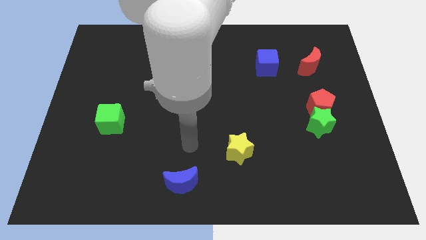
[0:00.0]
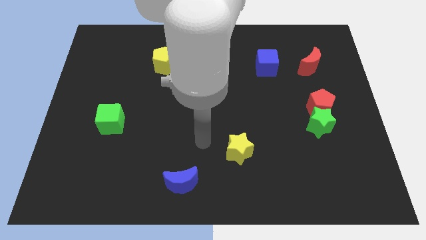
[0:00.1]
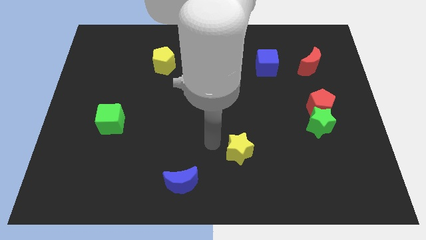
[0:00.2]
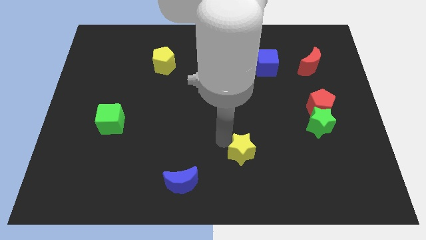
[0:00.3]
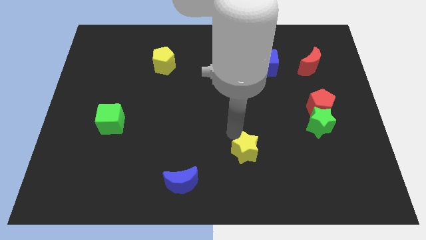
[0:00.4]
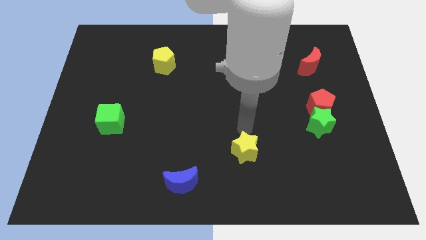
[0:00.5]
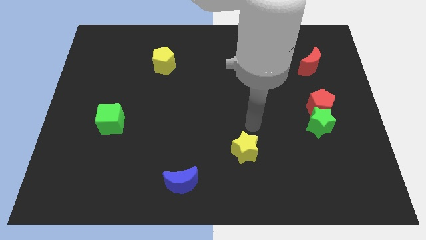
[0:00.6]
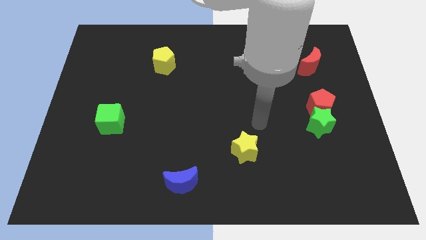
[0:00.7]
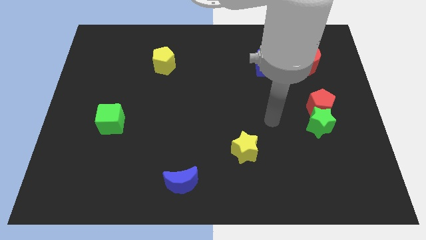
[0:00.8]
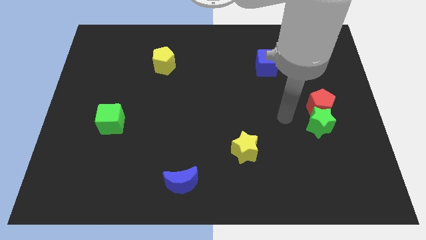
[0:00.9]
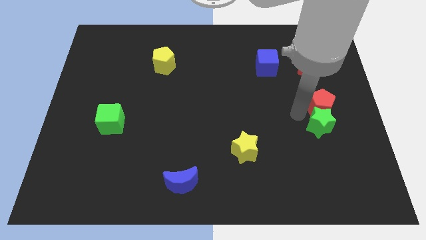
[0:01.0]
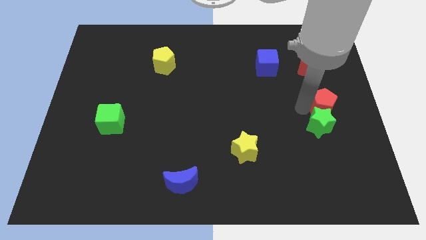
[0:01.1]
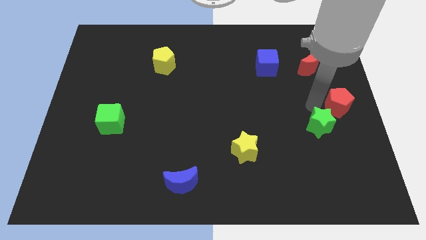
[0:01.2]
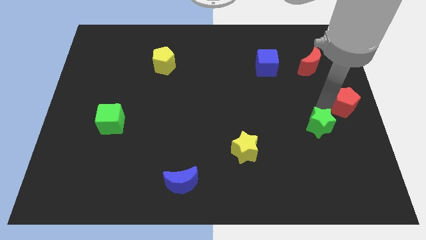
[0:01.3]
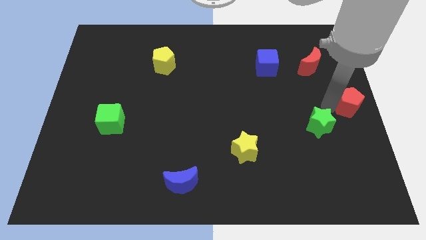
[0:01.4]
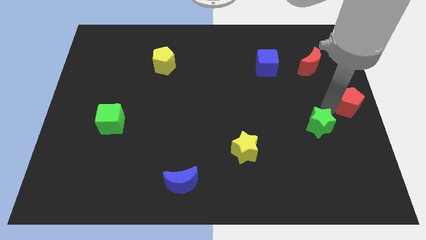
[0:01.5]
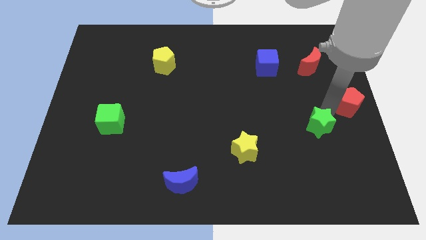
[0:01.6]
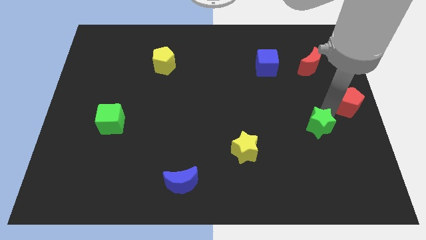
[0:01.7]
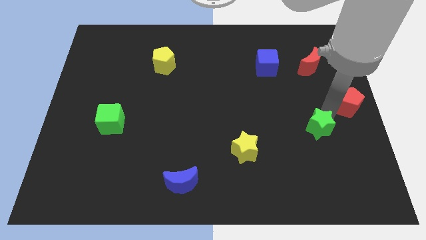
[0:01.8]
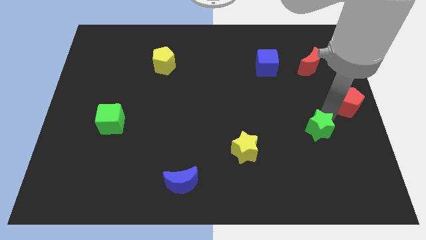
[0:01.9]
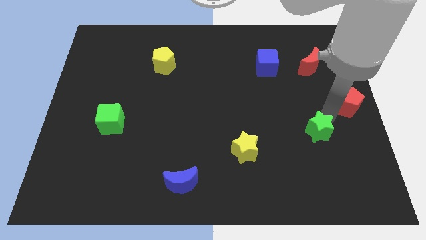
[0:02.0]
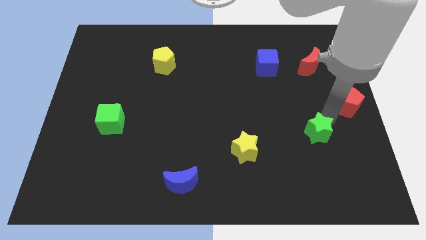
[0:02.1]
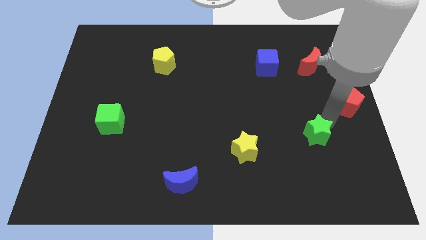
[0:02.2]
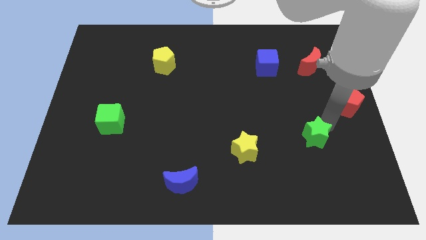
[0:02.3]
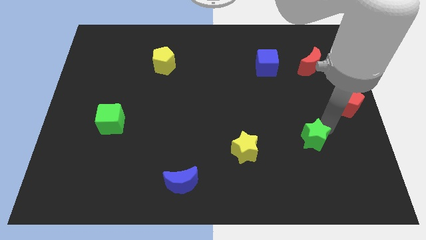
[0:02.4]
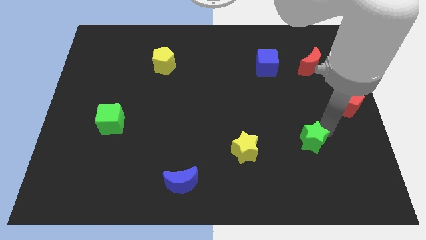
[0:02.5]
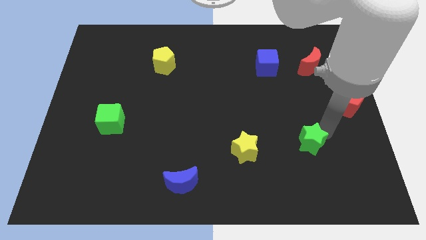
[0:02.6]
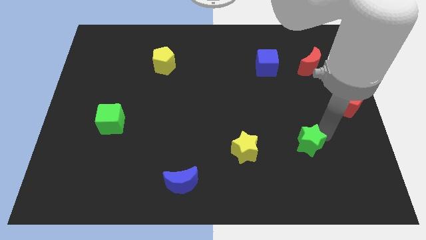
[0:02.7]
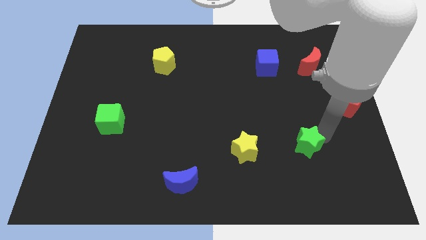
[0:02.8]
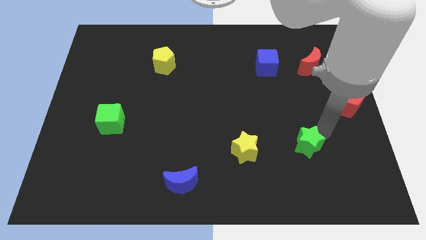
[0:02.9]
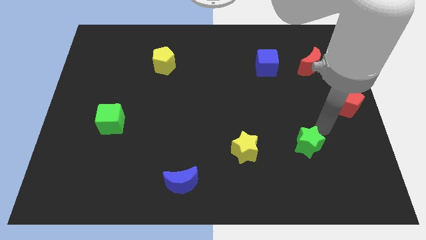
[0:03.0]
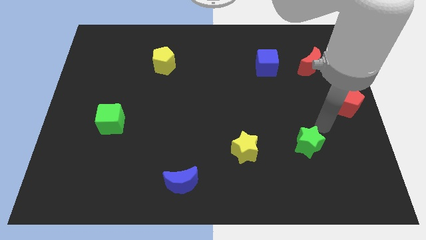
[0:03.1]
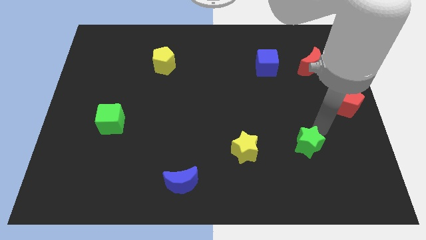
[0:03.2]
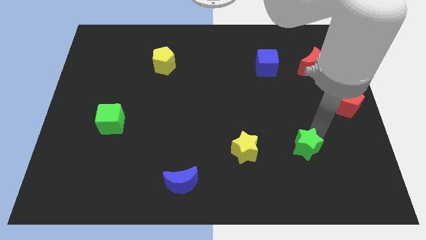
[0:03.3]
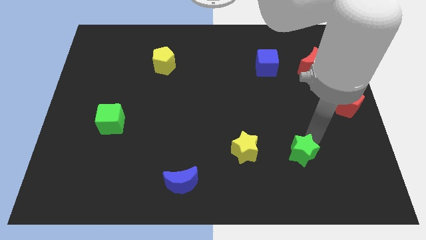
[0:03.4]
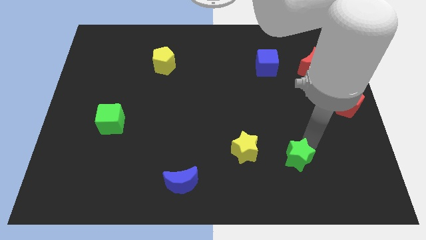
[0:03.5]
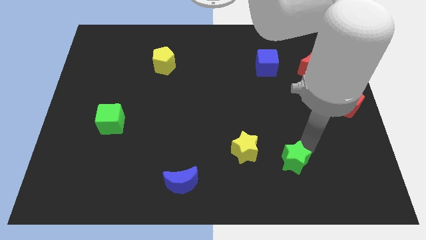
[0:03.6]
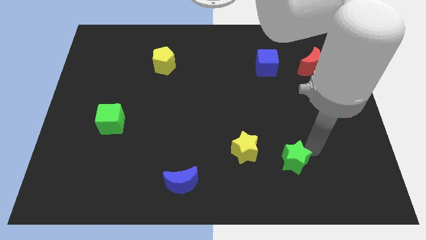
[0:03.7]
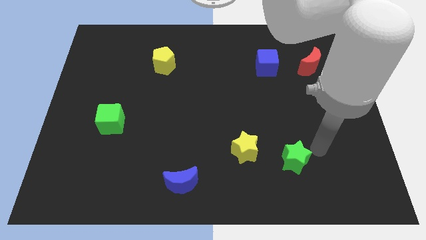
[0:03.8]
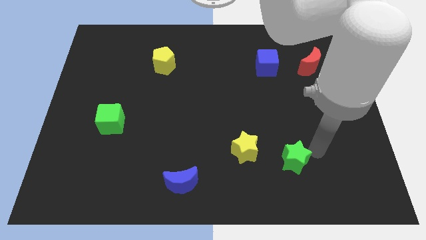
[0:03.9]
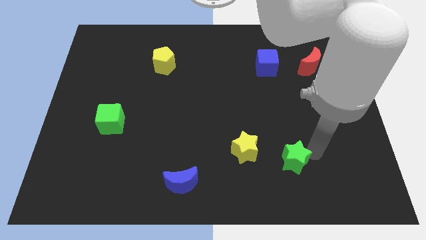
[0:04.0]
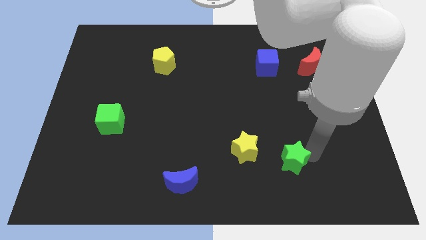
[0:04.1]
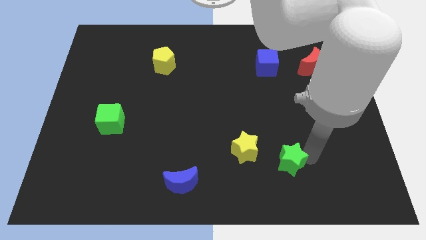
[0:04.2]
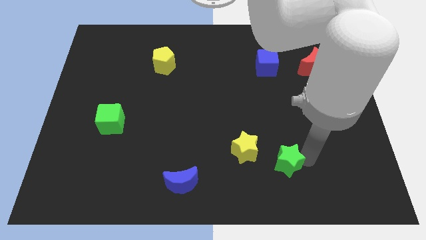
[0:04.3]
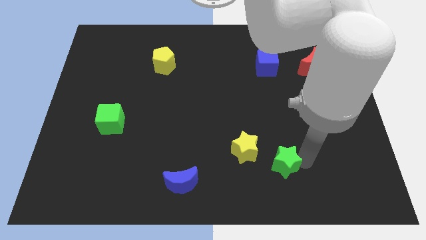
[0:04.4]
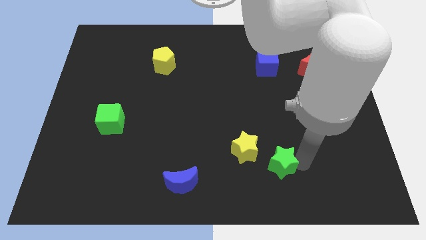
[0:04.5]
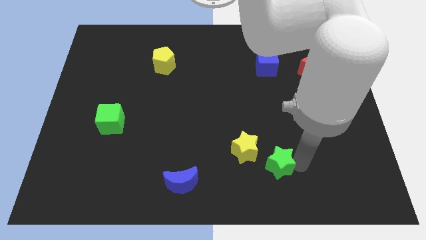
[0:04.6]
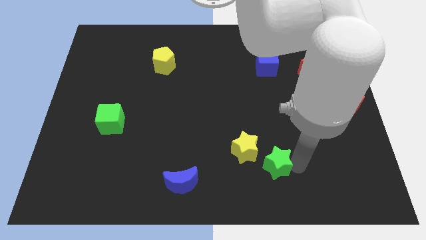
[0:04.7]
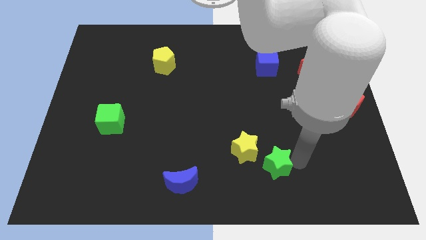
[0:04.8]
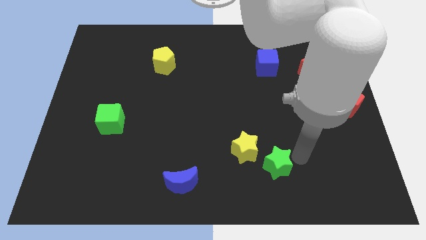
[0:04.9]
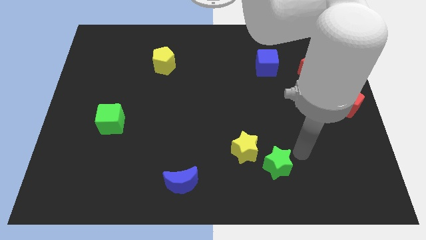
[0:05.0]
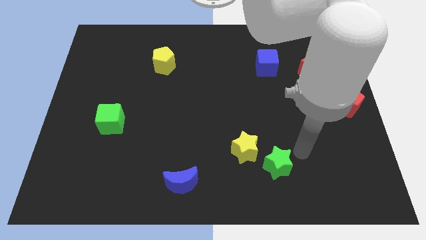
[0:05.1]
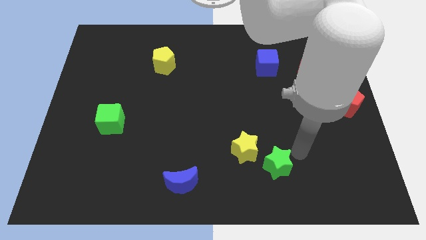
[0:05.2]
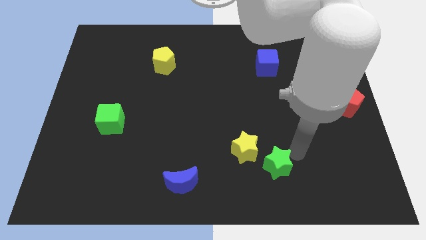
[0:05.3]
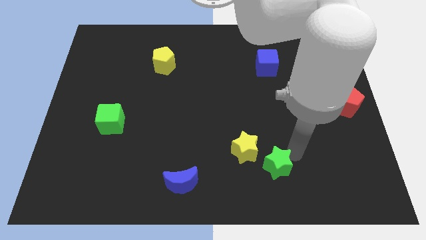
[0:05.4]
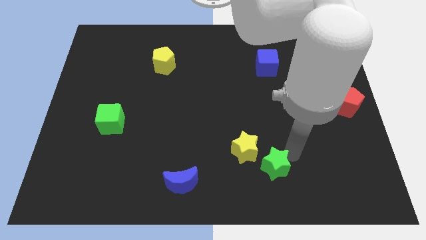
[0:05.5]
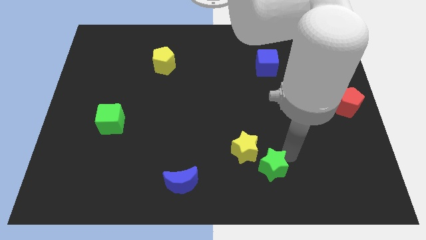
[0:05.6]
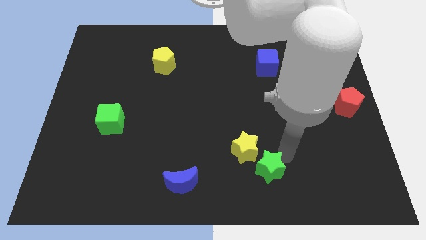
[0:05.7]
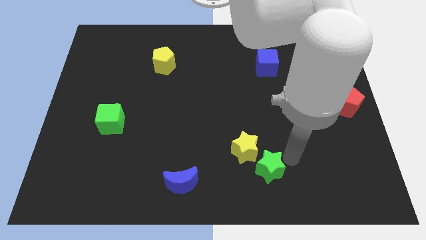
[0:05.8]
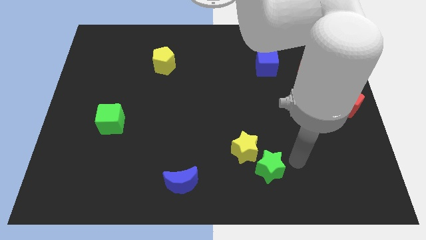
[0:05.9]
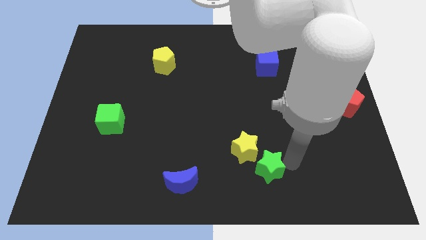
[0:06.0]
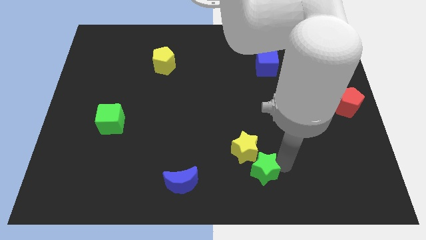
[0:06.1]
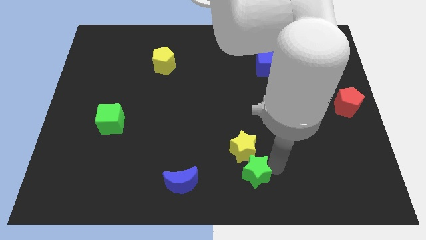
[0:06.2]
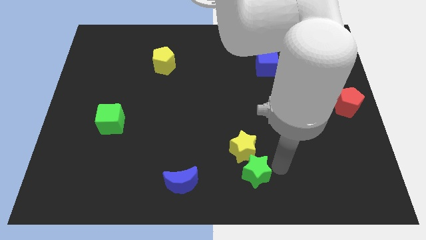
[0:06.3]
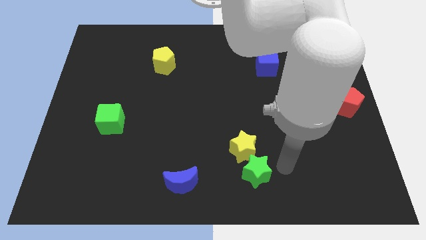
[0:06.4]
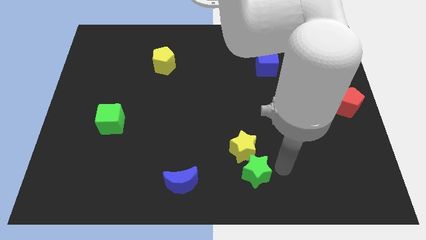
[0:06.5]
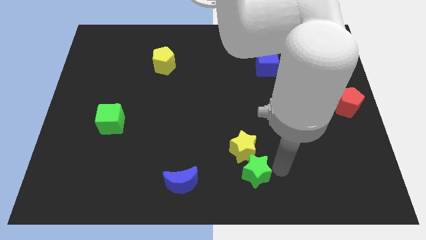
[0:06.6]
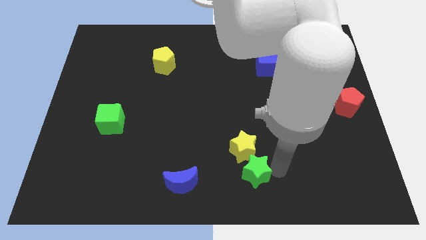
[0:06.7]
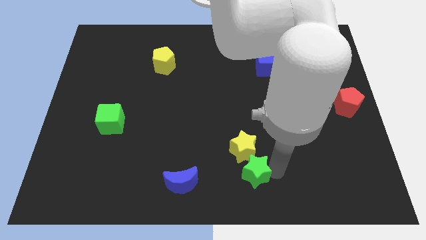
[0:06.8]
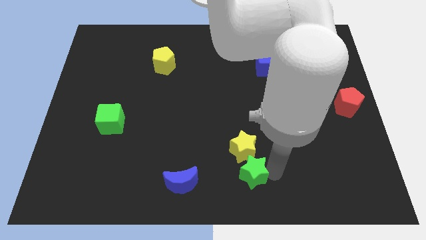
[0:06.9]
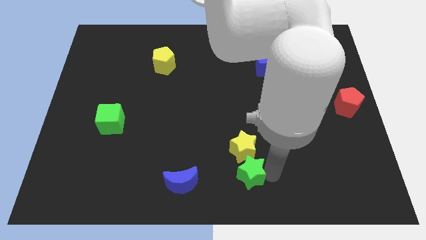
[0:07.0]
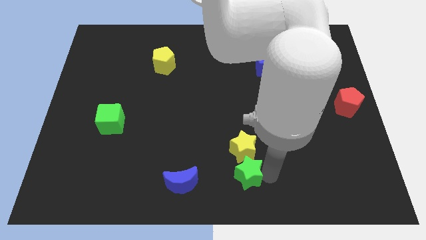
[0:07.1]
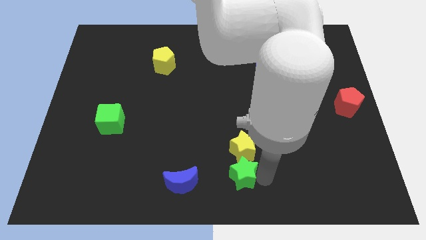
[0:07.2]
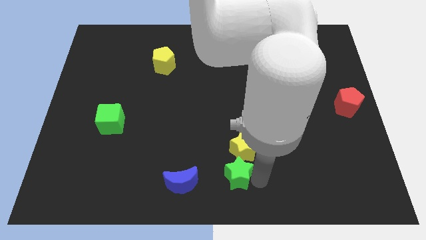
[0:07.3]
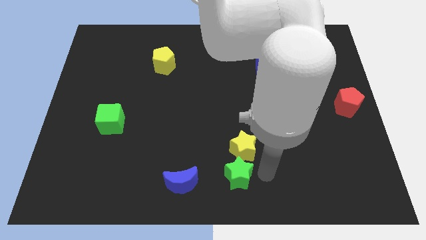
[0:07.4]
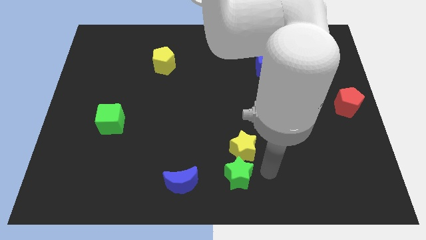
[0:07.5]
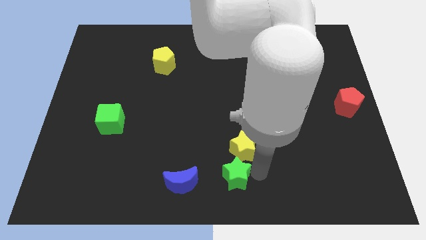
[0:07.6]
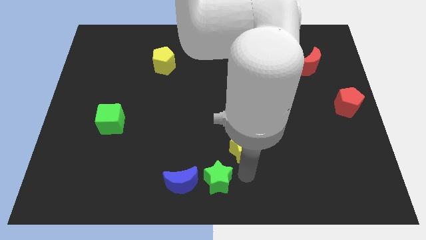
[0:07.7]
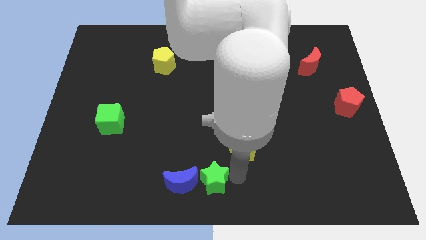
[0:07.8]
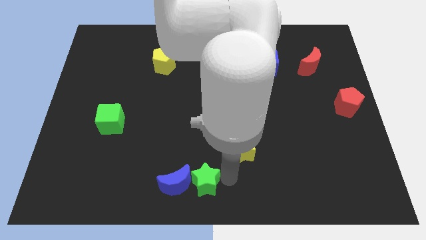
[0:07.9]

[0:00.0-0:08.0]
slide the green star next to the blue moon
